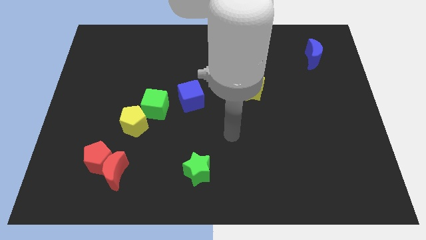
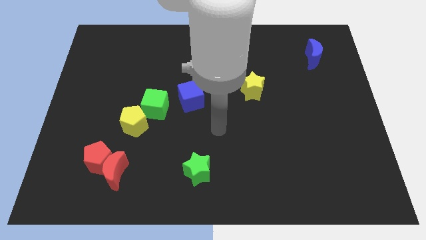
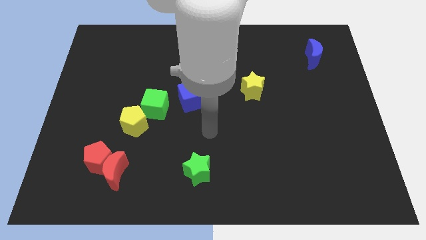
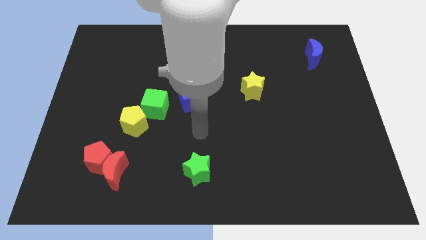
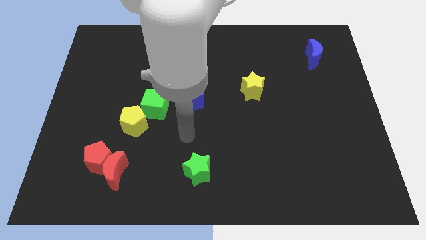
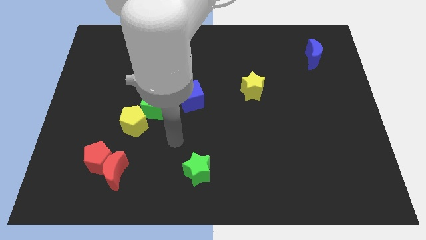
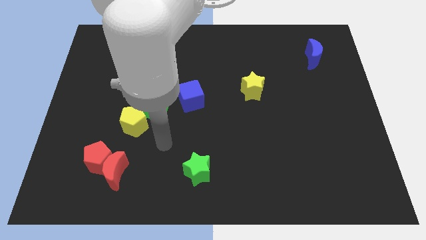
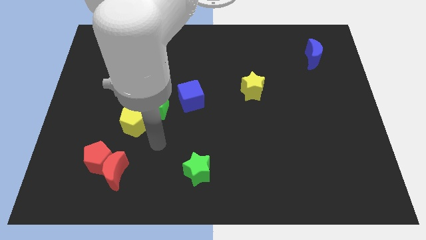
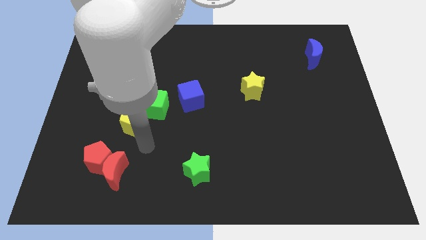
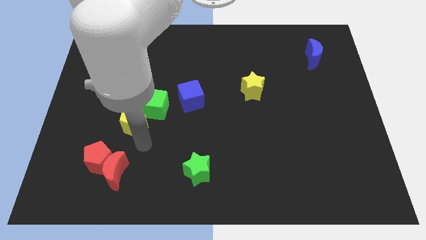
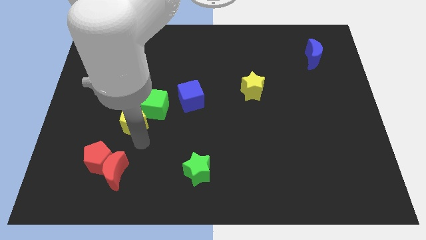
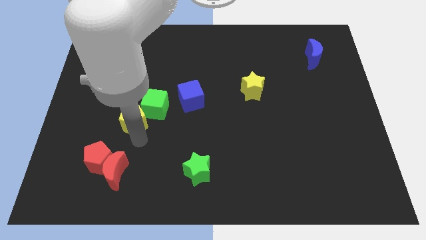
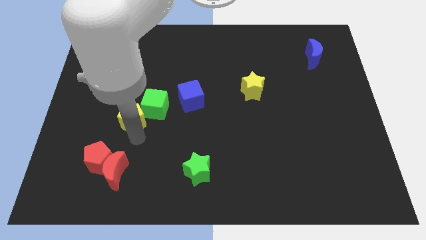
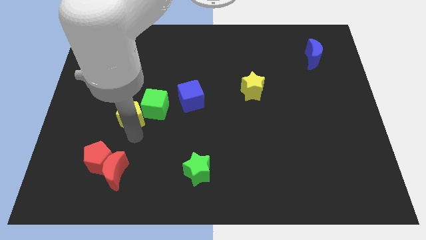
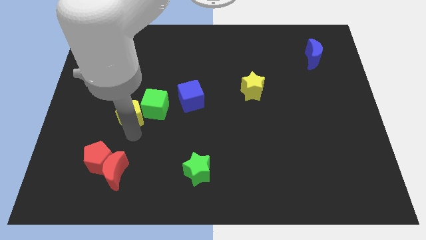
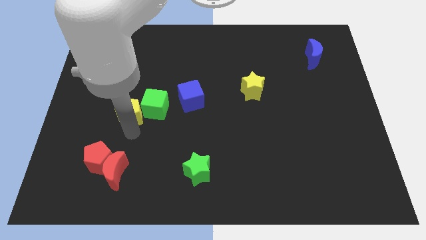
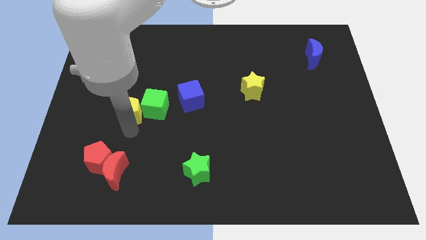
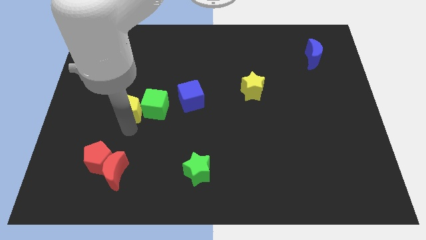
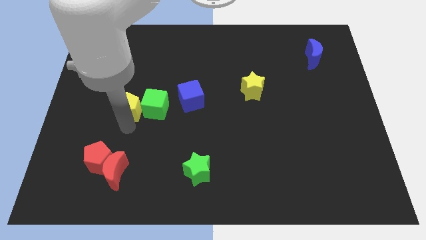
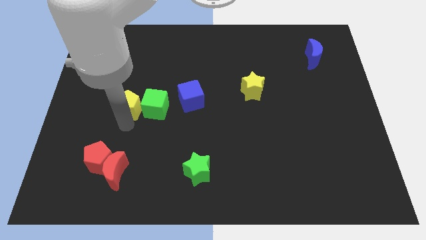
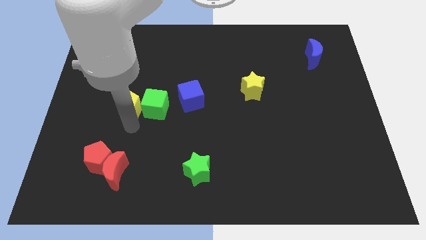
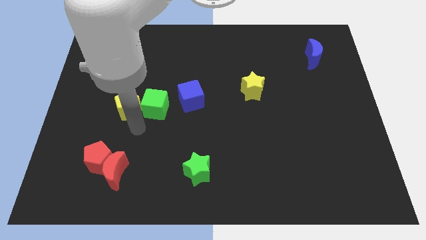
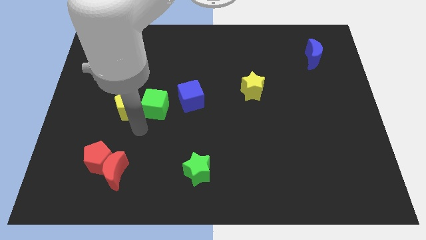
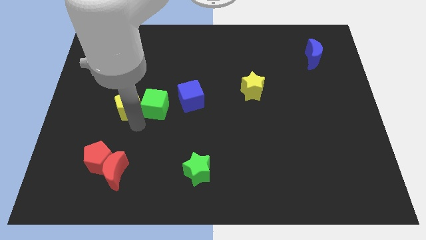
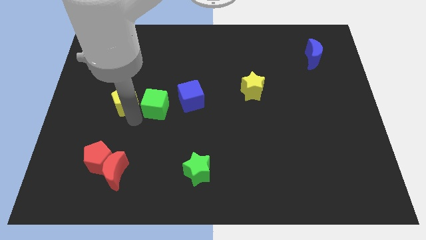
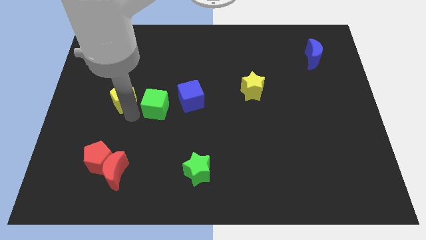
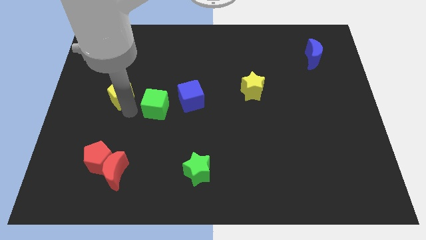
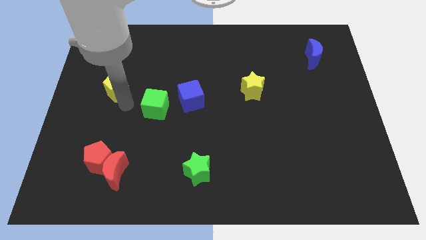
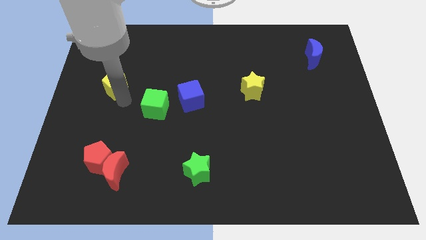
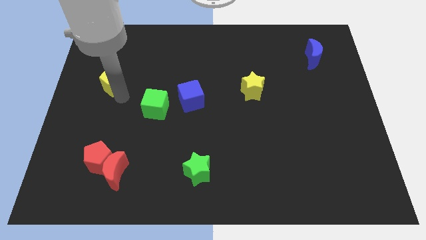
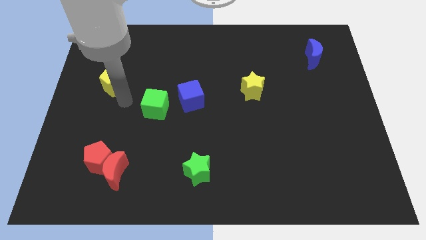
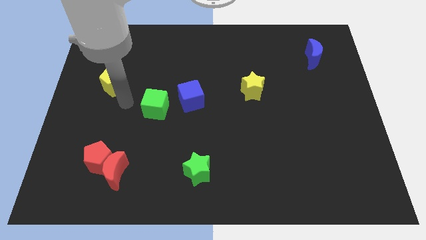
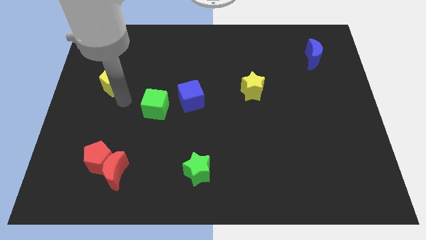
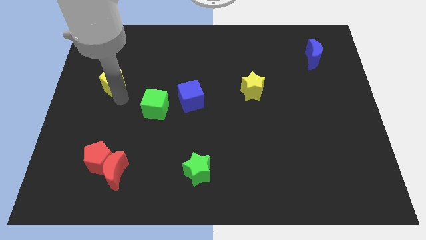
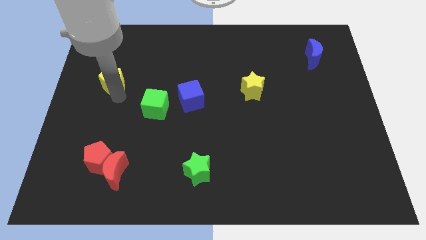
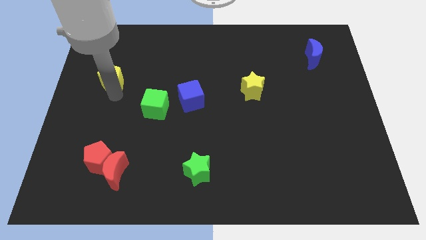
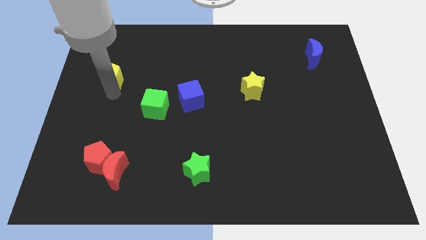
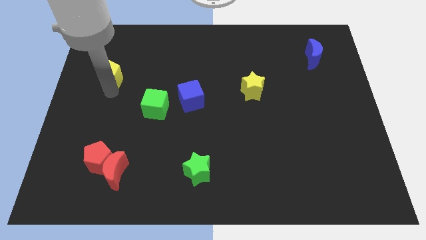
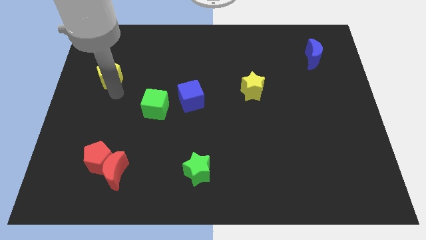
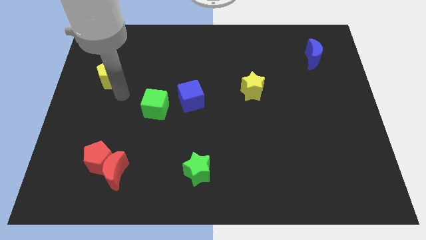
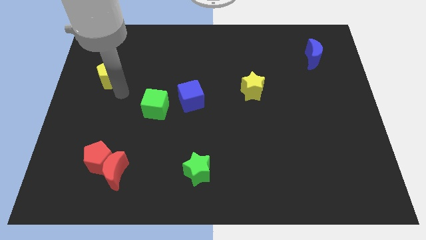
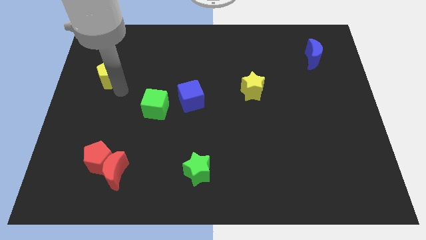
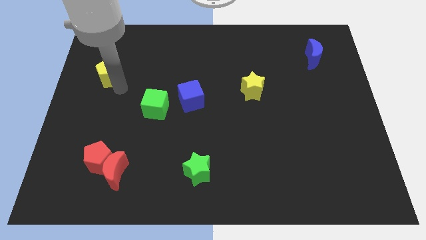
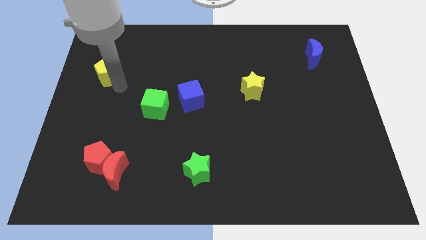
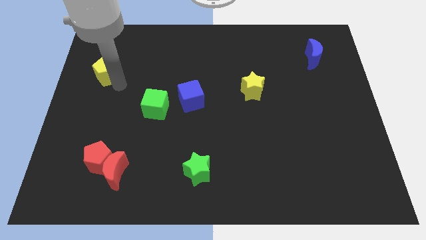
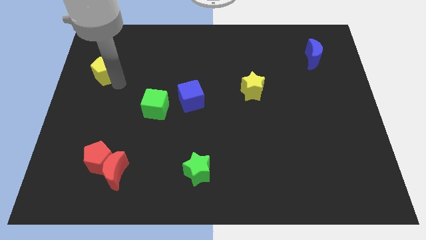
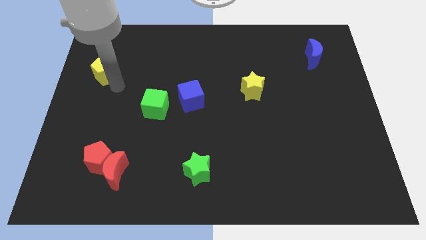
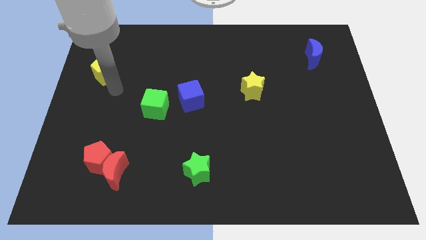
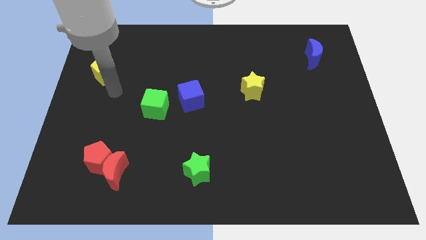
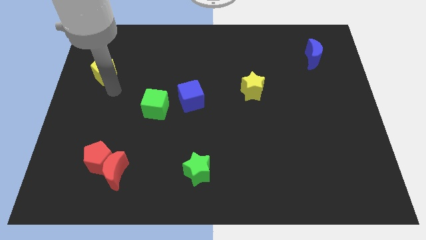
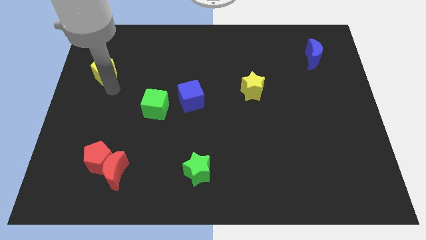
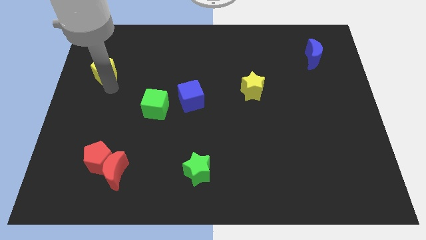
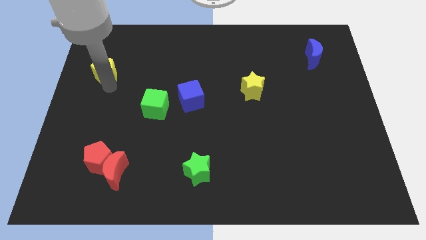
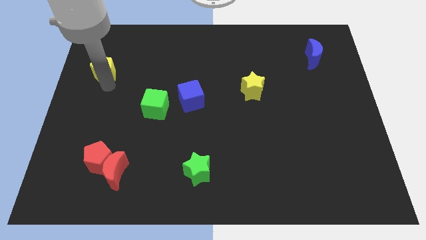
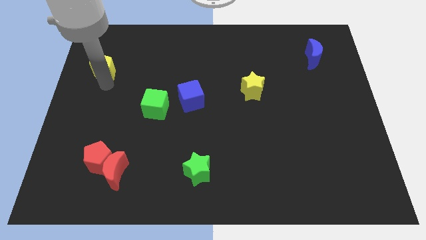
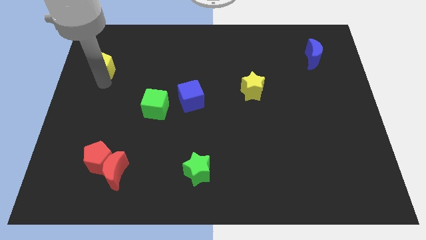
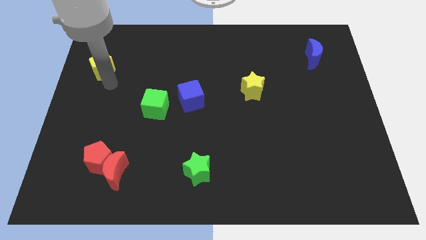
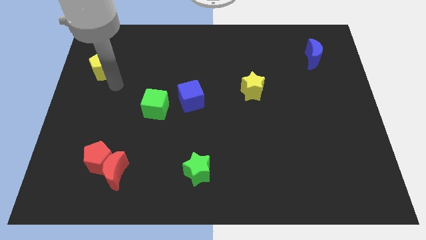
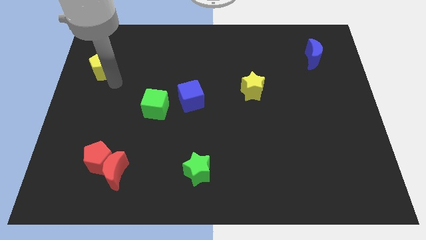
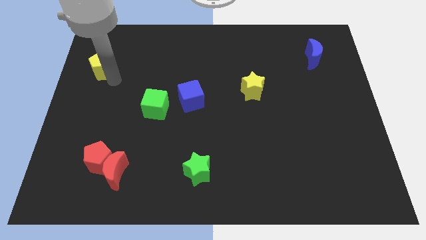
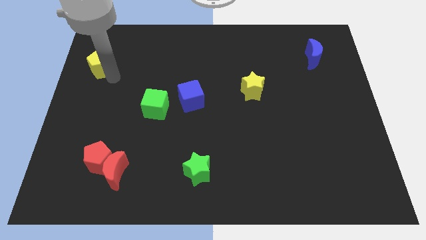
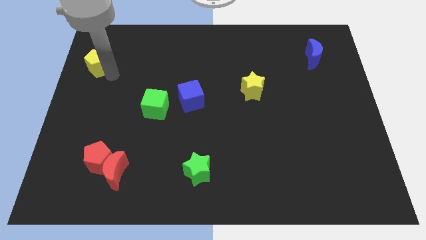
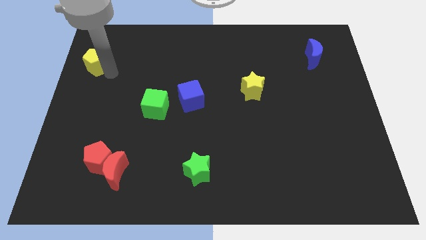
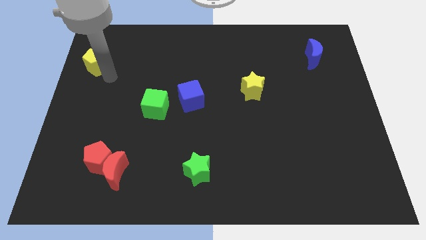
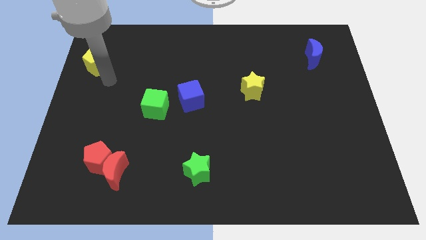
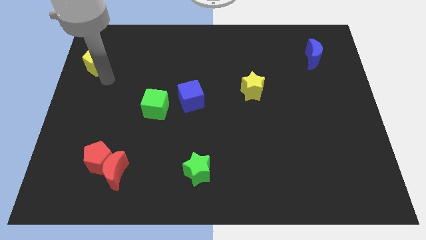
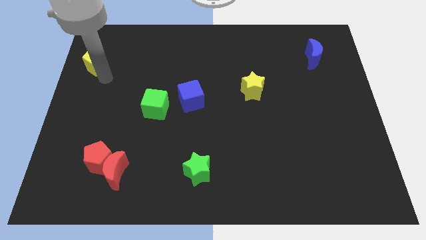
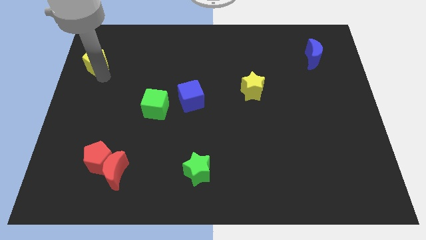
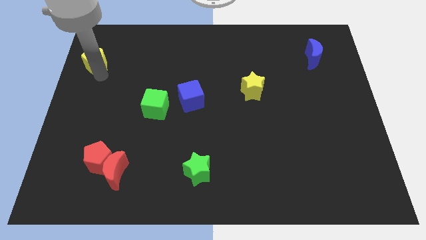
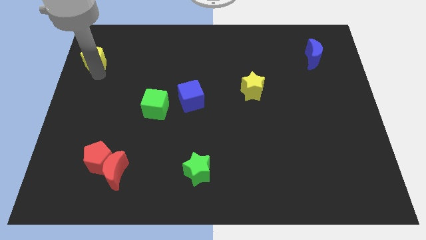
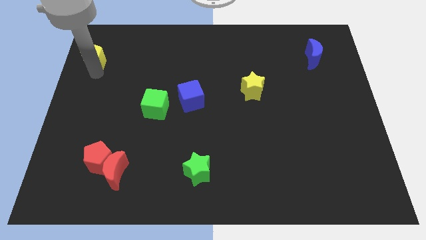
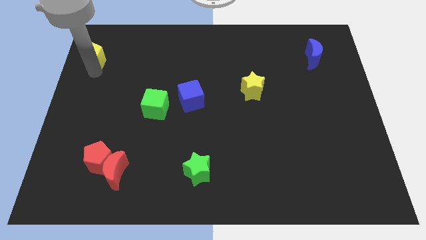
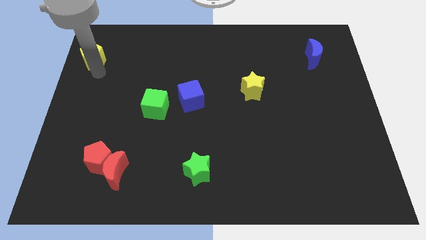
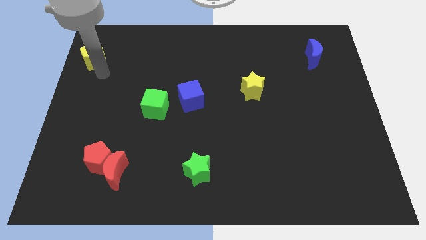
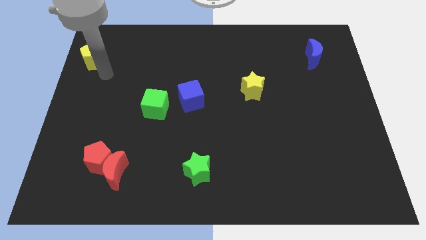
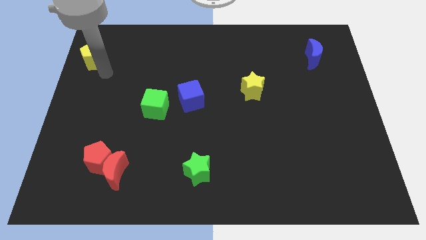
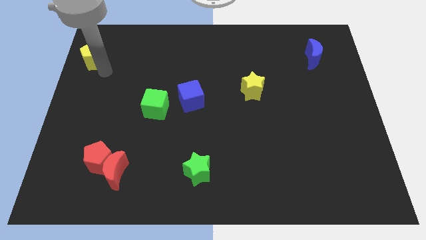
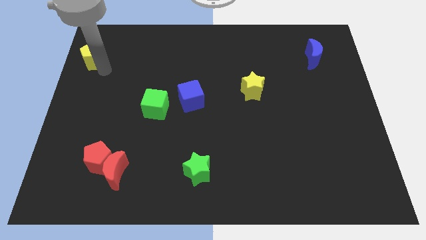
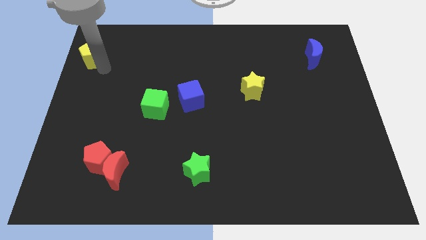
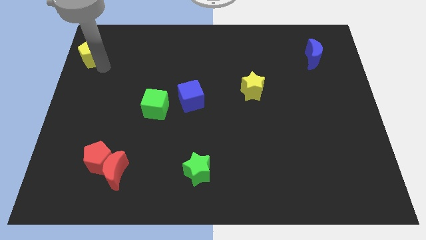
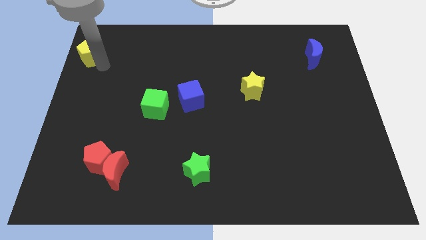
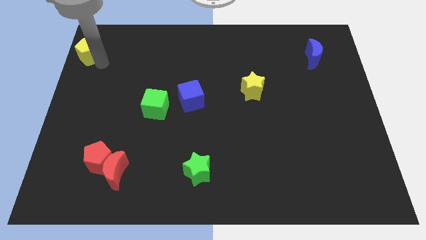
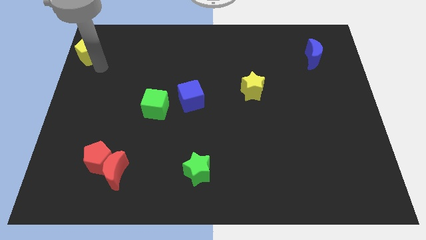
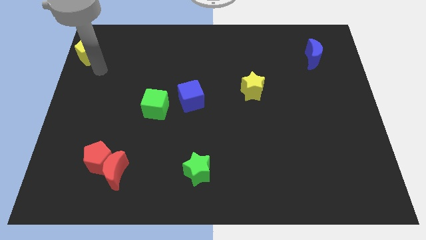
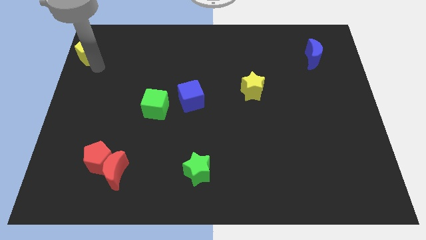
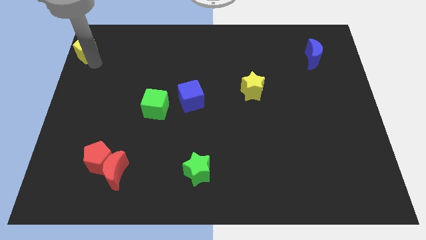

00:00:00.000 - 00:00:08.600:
slide the yellow pentagon to the top left
